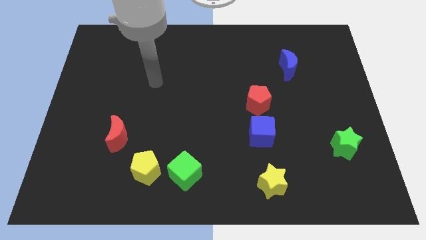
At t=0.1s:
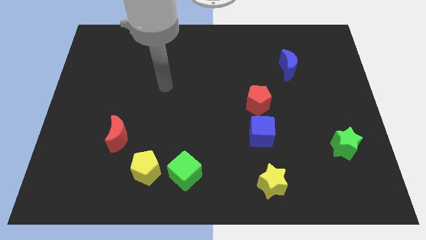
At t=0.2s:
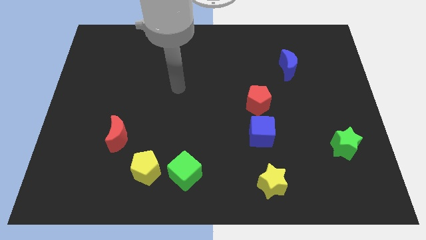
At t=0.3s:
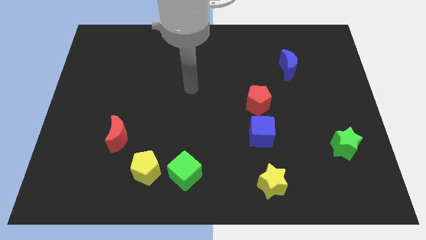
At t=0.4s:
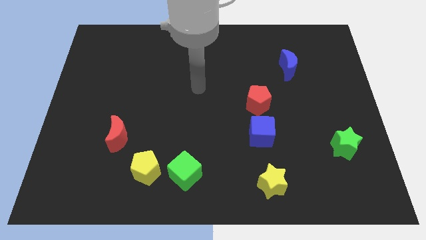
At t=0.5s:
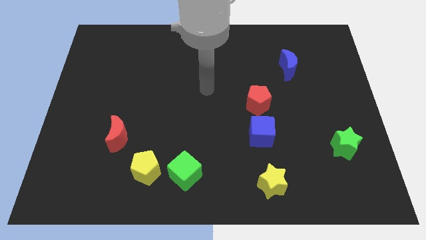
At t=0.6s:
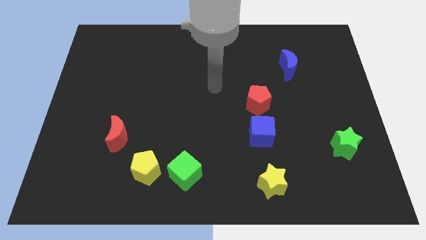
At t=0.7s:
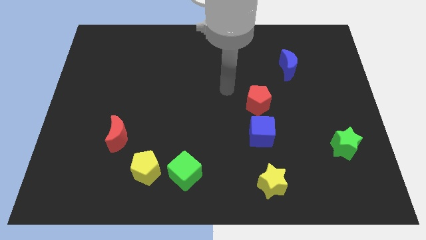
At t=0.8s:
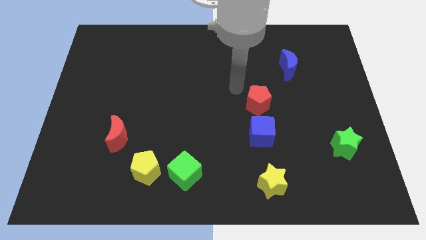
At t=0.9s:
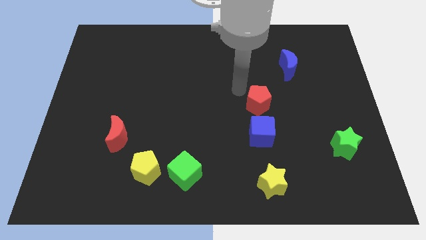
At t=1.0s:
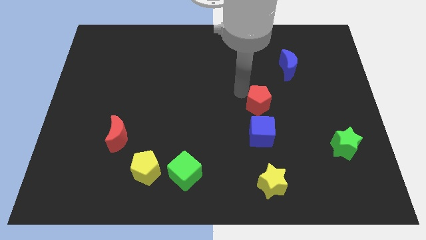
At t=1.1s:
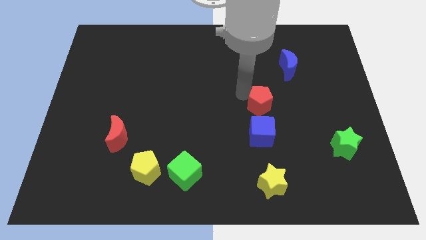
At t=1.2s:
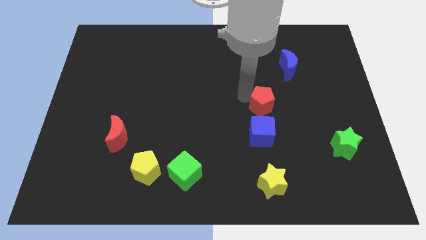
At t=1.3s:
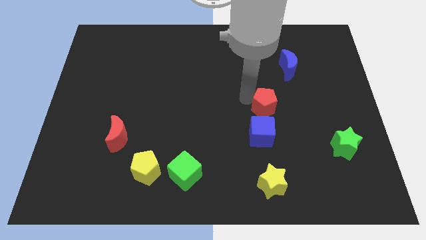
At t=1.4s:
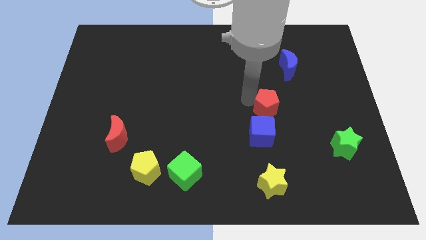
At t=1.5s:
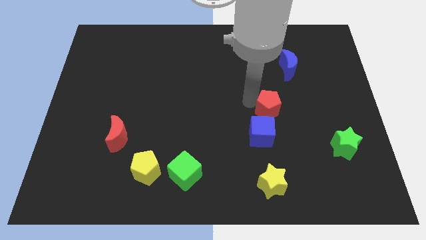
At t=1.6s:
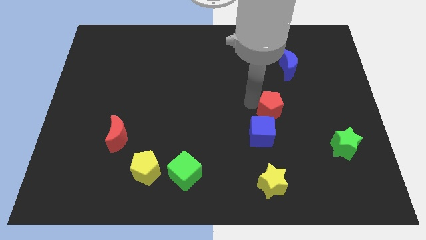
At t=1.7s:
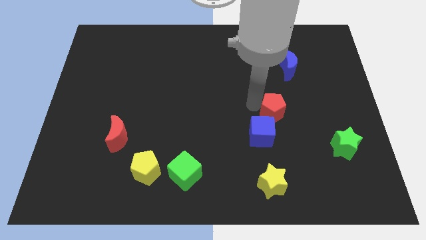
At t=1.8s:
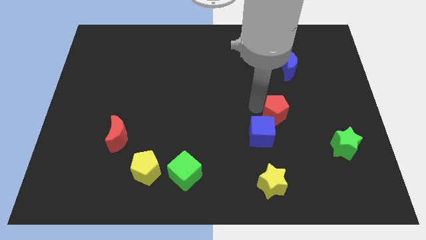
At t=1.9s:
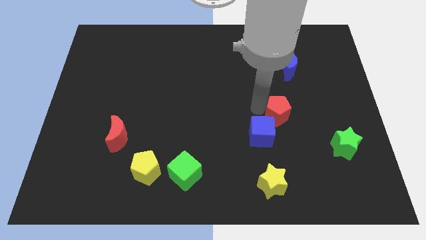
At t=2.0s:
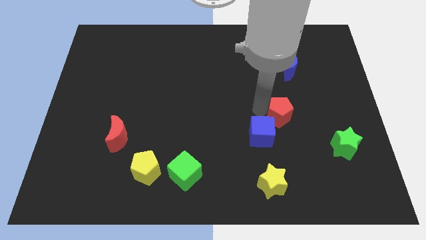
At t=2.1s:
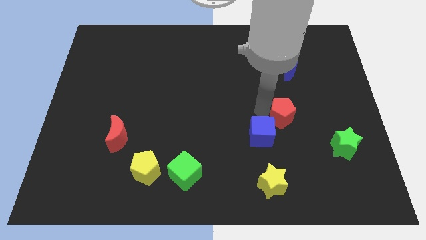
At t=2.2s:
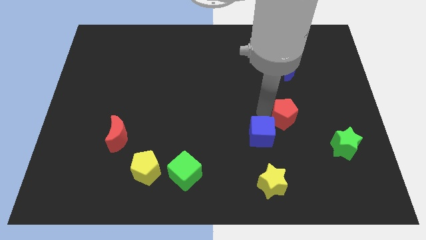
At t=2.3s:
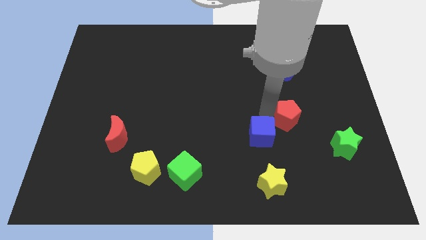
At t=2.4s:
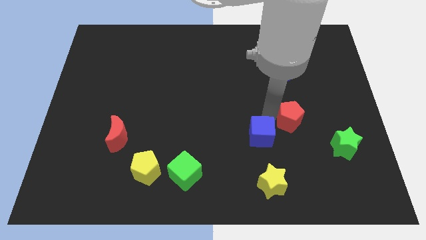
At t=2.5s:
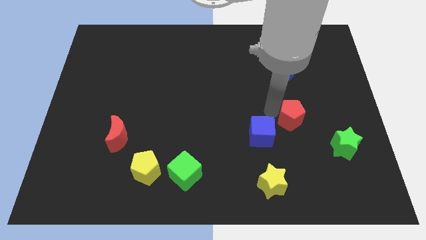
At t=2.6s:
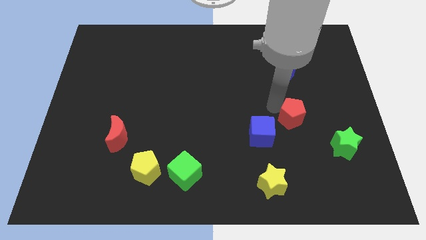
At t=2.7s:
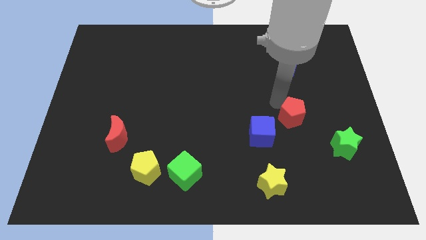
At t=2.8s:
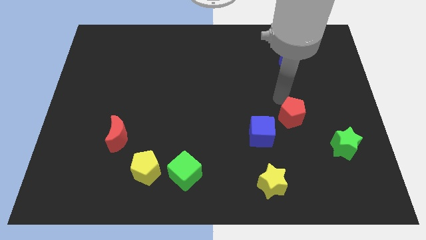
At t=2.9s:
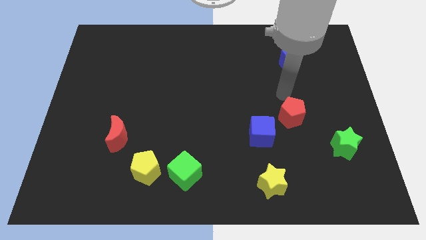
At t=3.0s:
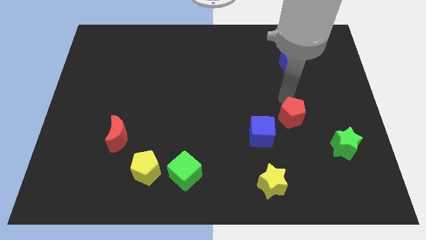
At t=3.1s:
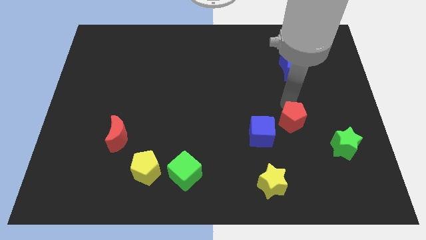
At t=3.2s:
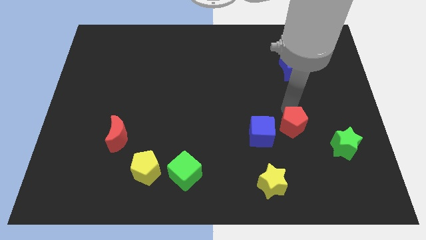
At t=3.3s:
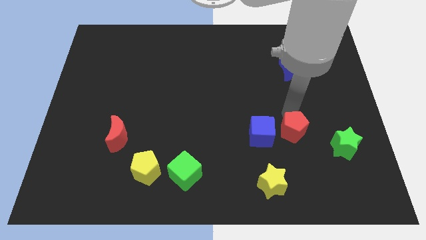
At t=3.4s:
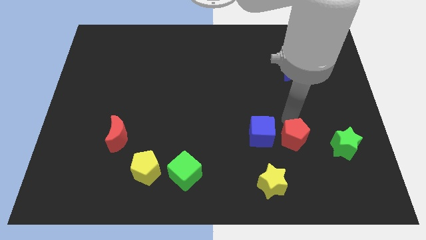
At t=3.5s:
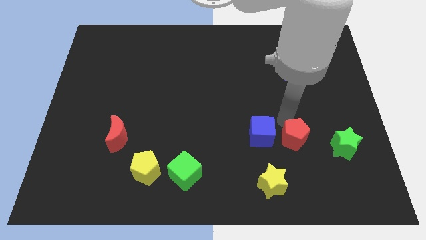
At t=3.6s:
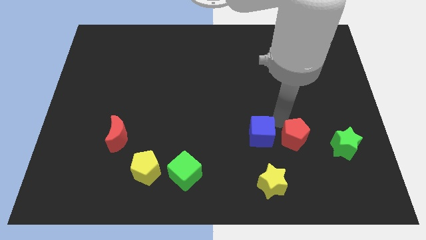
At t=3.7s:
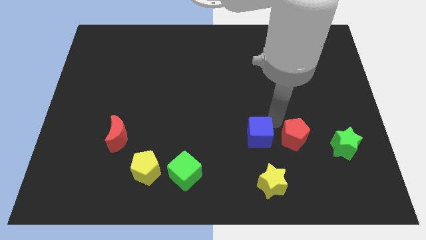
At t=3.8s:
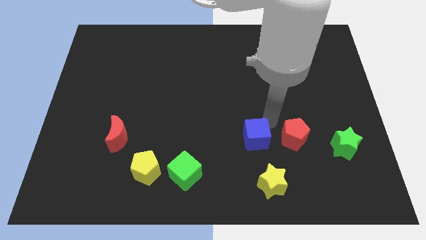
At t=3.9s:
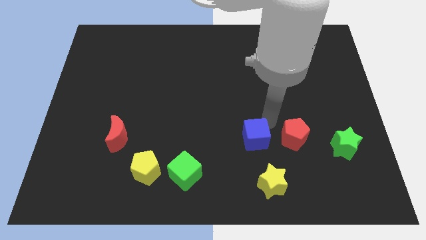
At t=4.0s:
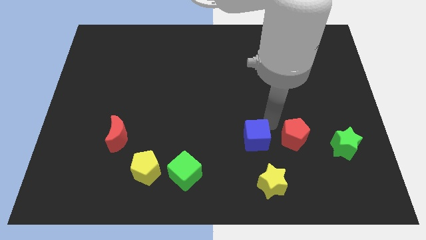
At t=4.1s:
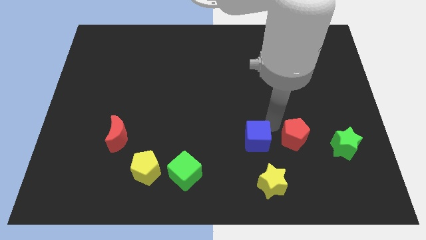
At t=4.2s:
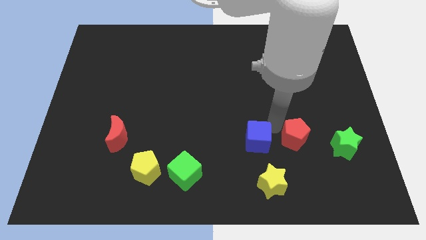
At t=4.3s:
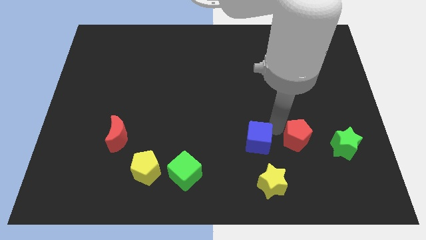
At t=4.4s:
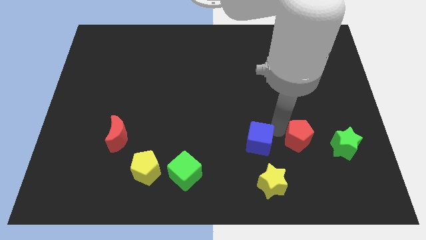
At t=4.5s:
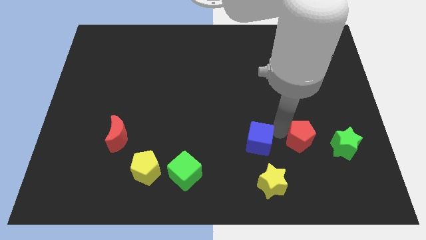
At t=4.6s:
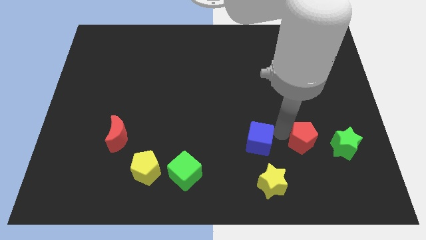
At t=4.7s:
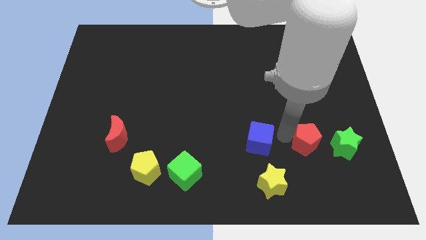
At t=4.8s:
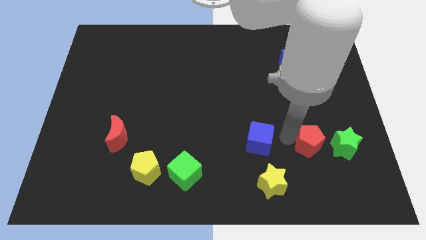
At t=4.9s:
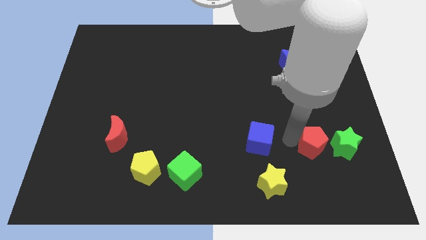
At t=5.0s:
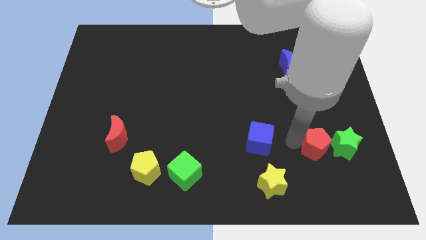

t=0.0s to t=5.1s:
slide the red pentagon to the bottom left side of the green star

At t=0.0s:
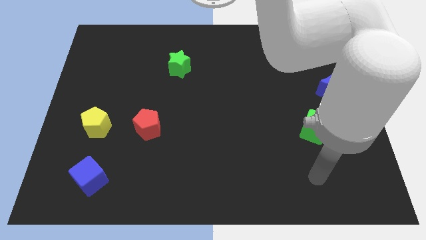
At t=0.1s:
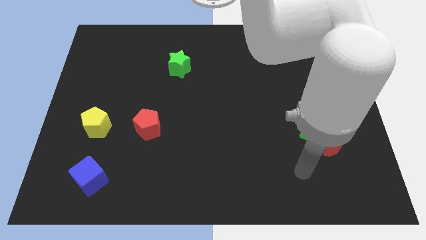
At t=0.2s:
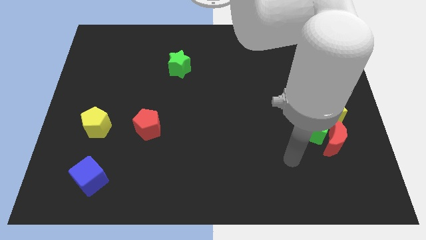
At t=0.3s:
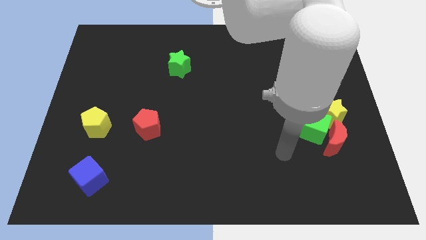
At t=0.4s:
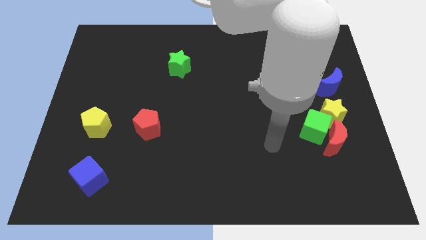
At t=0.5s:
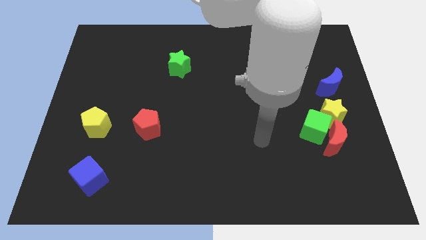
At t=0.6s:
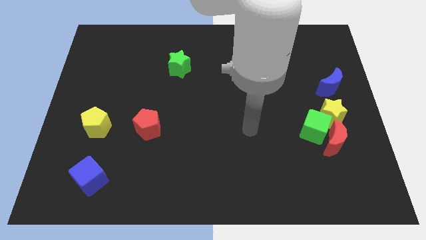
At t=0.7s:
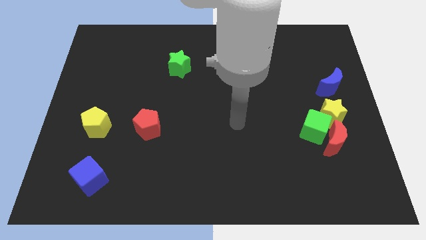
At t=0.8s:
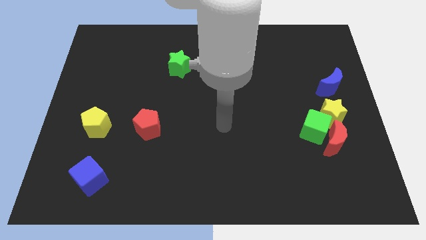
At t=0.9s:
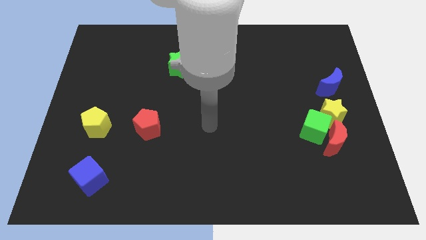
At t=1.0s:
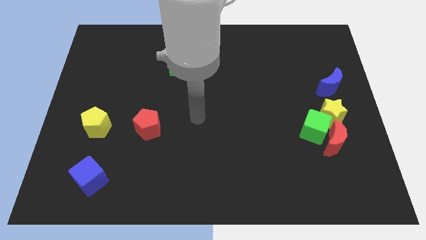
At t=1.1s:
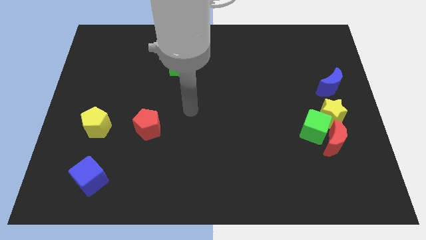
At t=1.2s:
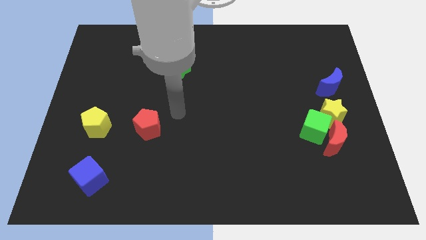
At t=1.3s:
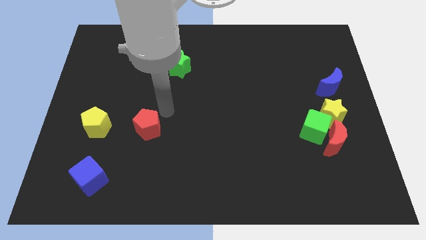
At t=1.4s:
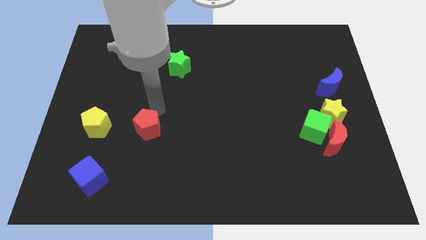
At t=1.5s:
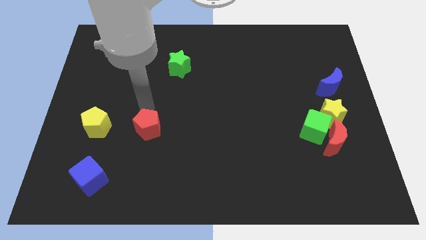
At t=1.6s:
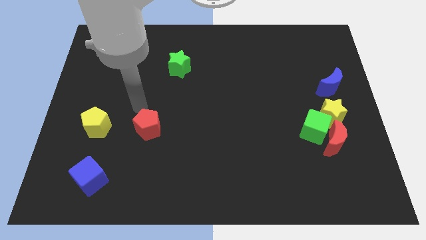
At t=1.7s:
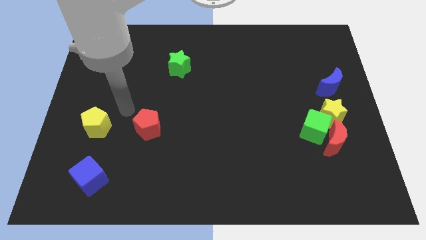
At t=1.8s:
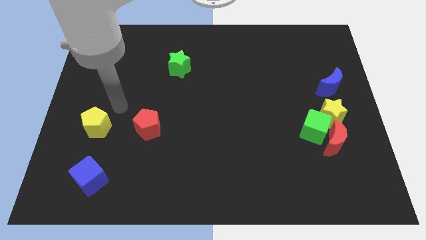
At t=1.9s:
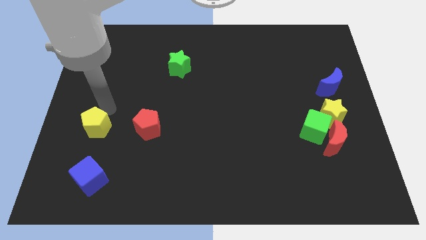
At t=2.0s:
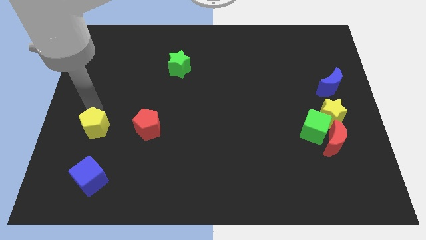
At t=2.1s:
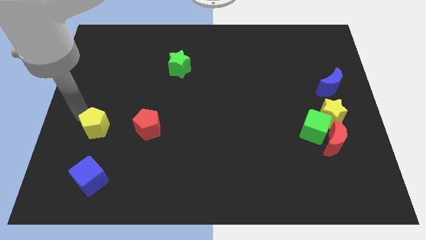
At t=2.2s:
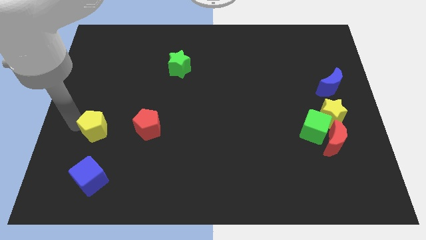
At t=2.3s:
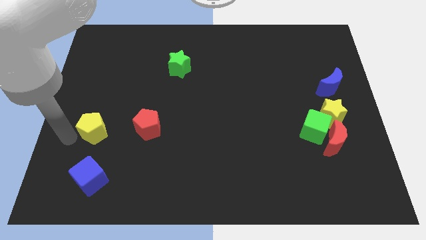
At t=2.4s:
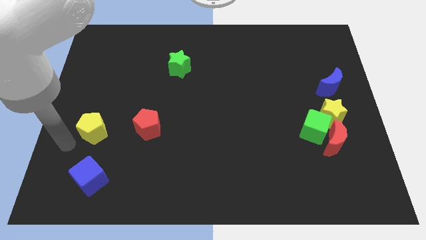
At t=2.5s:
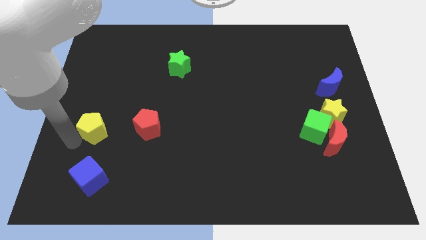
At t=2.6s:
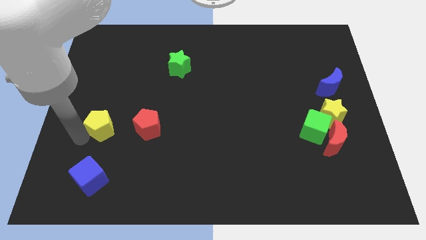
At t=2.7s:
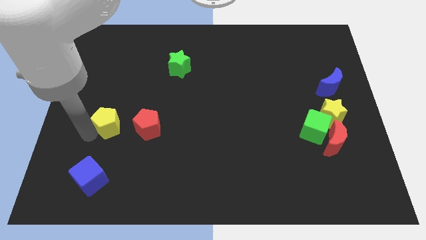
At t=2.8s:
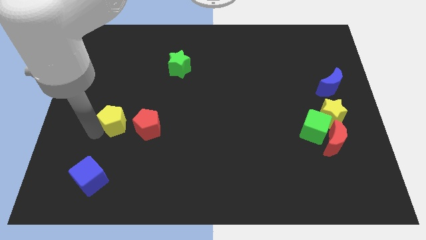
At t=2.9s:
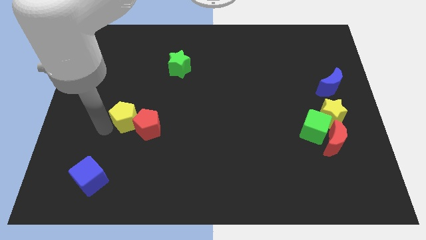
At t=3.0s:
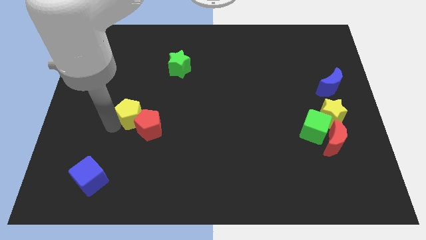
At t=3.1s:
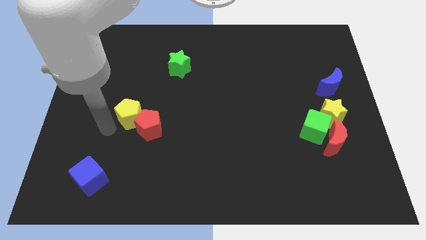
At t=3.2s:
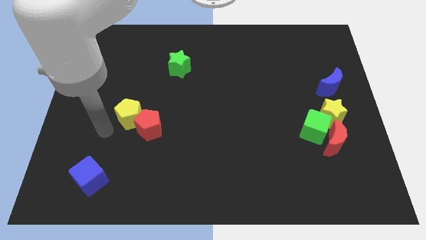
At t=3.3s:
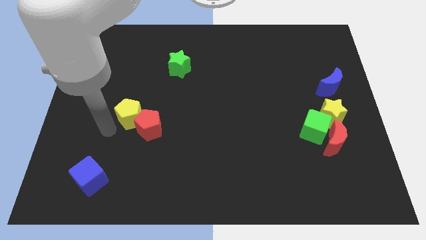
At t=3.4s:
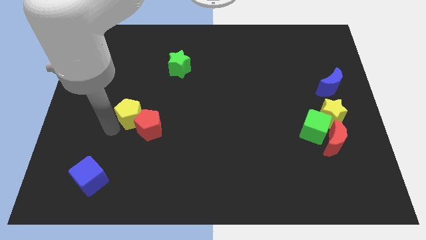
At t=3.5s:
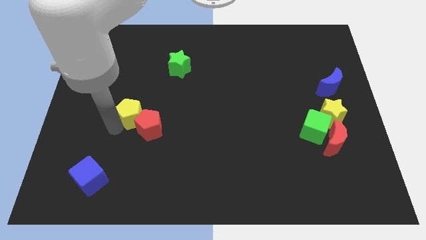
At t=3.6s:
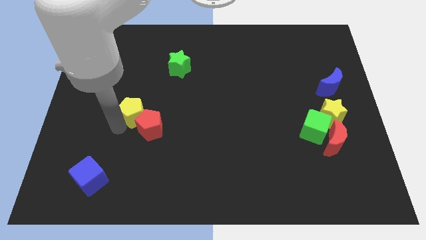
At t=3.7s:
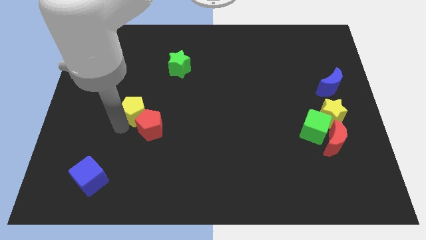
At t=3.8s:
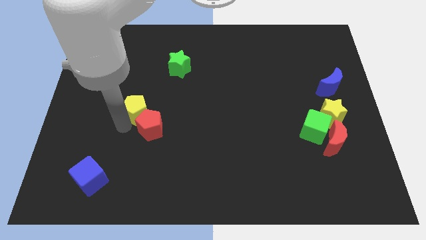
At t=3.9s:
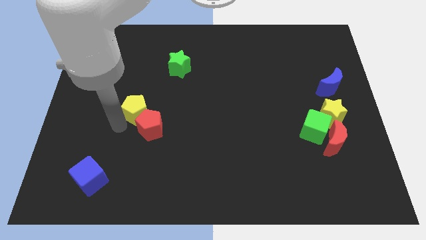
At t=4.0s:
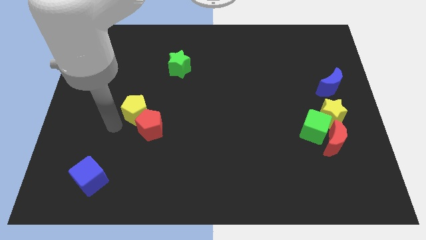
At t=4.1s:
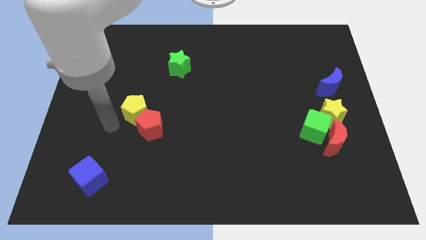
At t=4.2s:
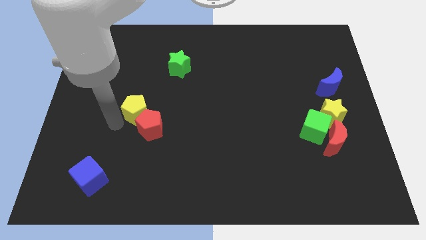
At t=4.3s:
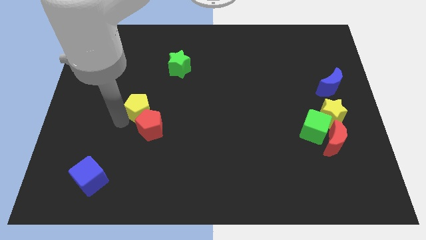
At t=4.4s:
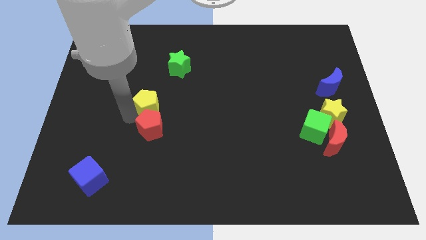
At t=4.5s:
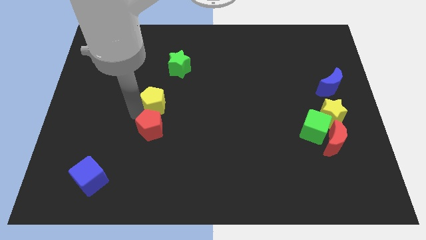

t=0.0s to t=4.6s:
move the yellow pentagon below the green star
